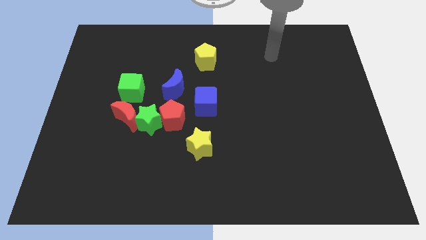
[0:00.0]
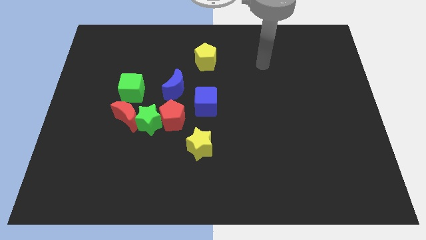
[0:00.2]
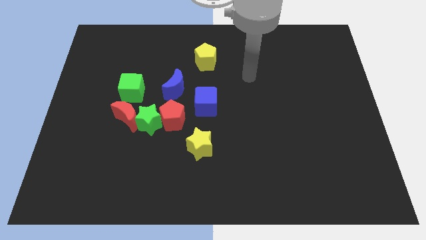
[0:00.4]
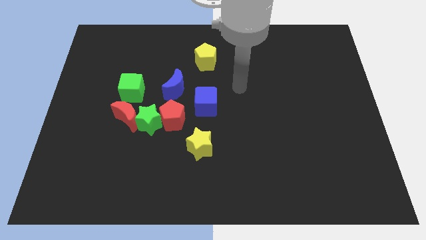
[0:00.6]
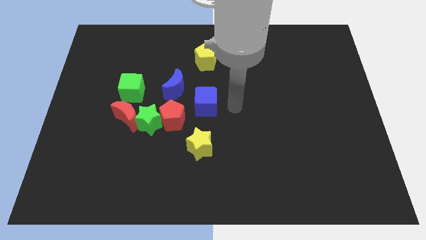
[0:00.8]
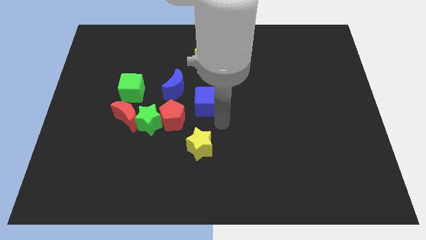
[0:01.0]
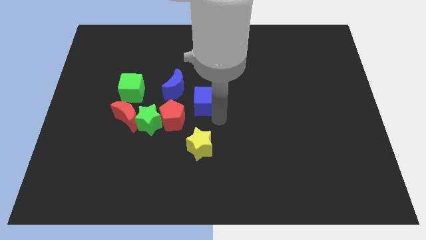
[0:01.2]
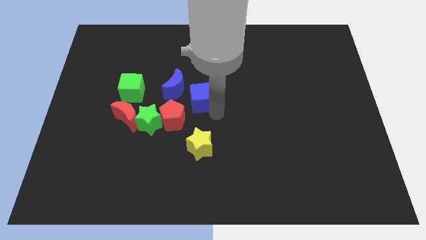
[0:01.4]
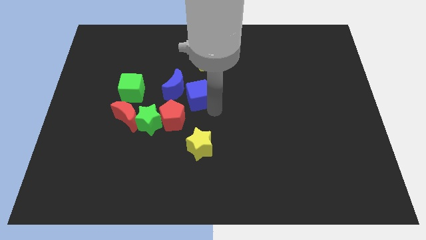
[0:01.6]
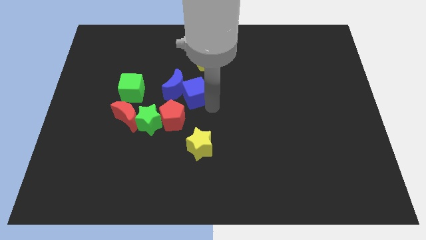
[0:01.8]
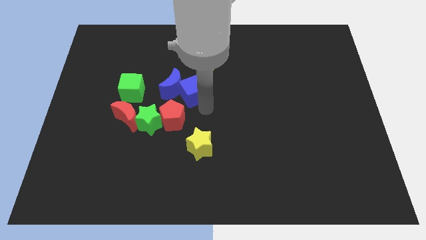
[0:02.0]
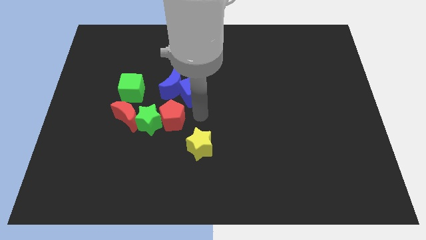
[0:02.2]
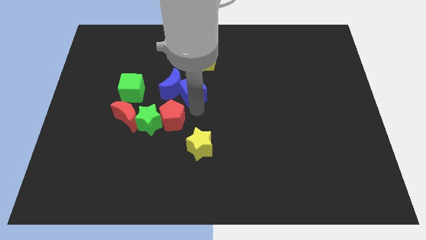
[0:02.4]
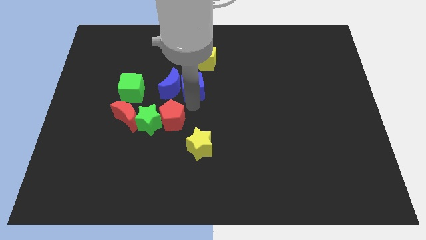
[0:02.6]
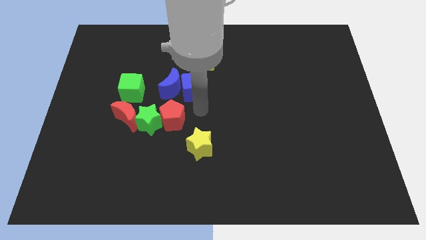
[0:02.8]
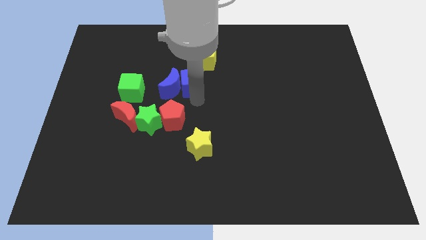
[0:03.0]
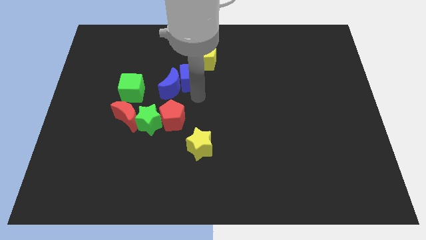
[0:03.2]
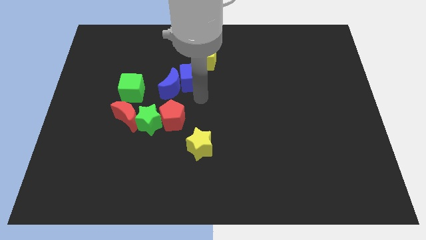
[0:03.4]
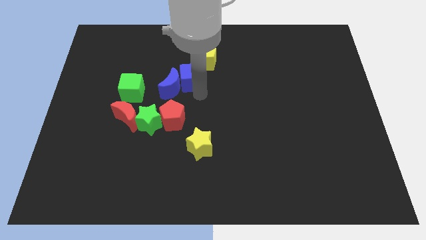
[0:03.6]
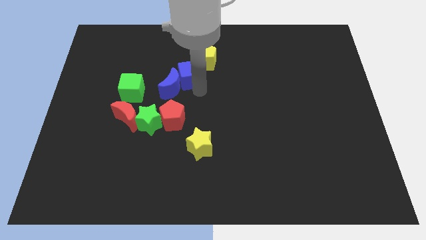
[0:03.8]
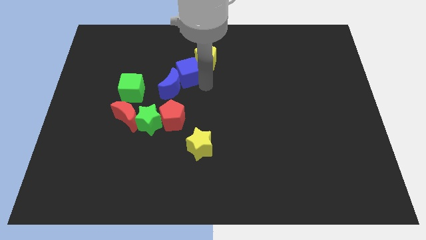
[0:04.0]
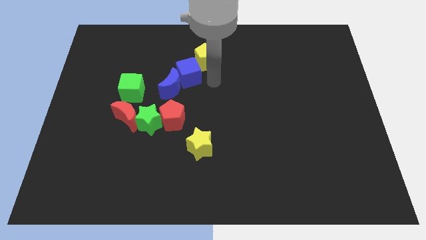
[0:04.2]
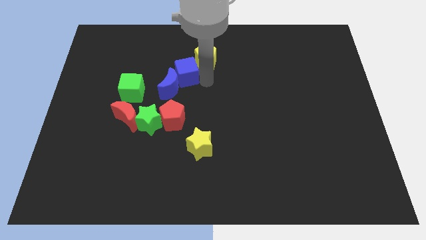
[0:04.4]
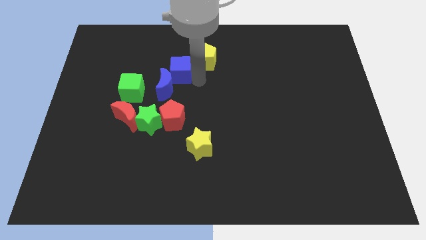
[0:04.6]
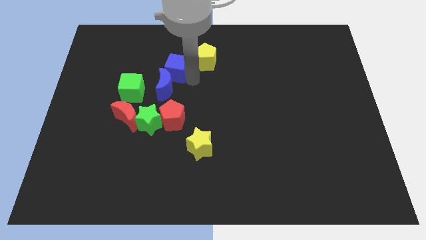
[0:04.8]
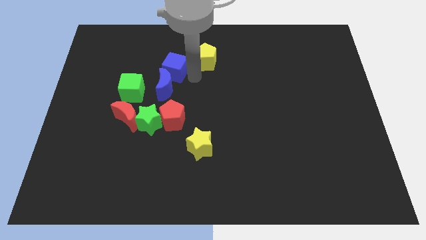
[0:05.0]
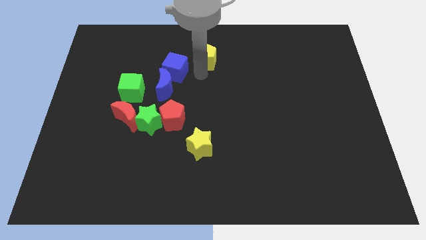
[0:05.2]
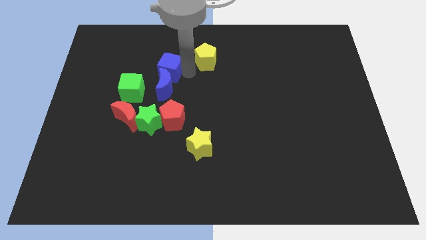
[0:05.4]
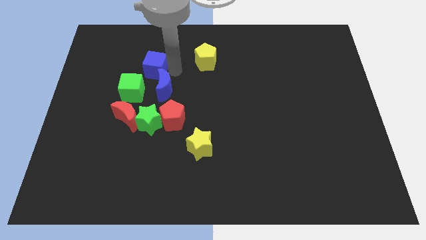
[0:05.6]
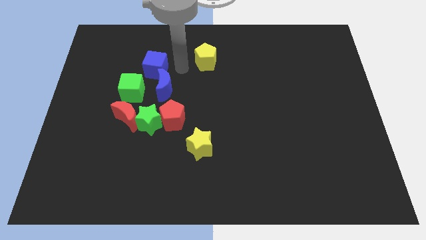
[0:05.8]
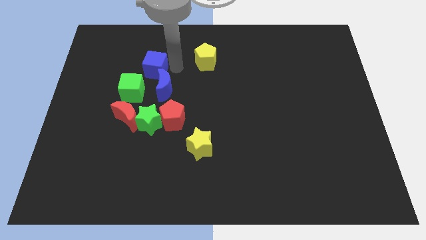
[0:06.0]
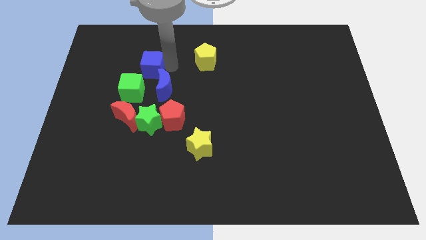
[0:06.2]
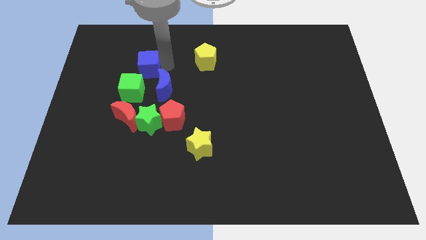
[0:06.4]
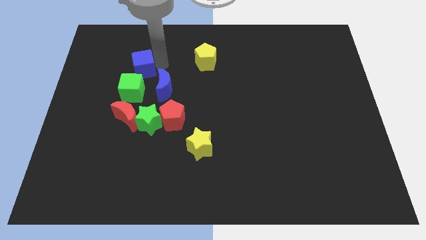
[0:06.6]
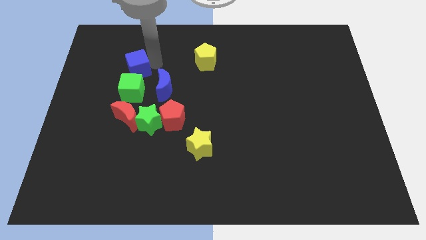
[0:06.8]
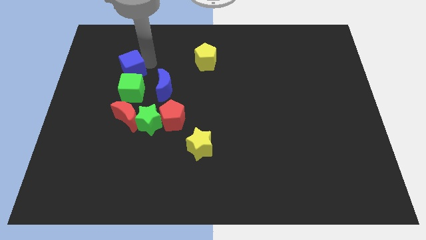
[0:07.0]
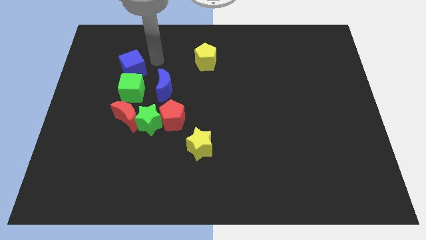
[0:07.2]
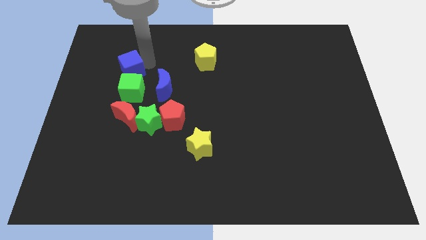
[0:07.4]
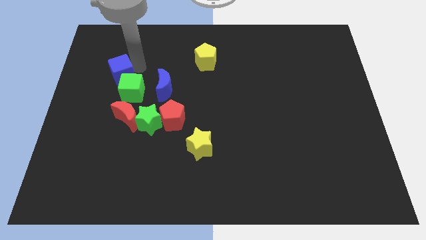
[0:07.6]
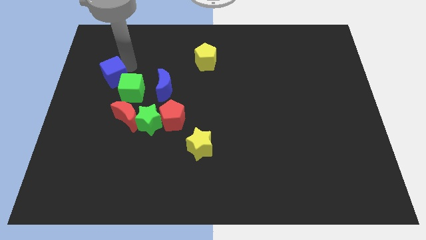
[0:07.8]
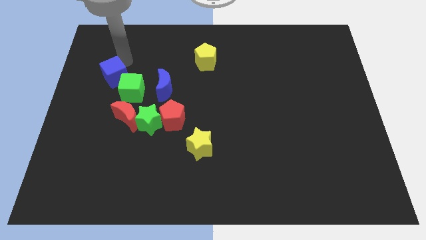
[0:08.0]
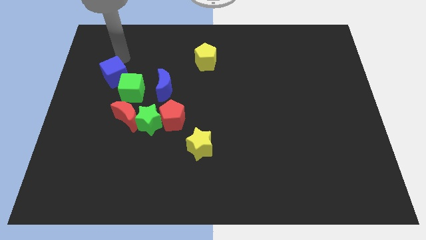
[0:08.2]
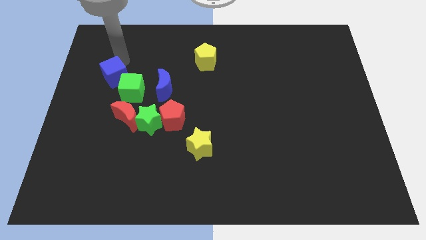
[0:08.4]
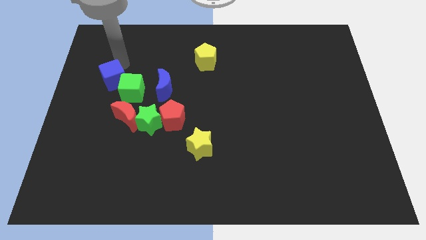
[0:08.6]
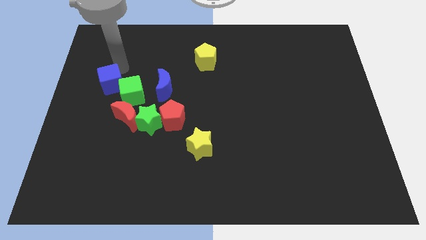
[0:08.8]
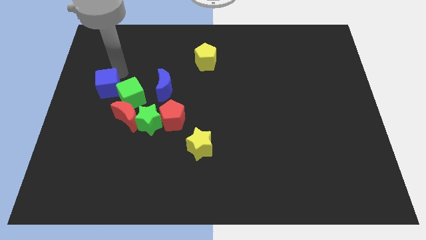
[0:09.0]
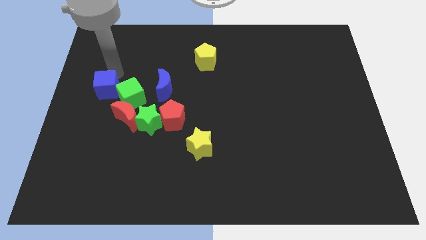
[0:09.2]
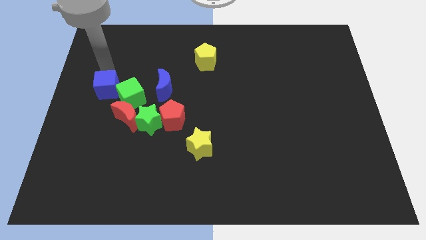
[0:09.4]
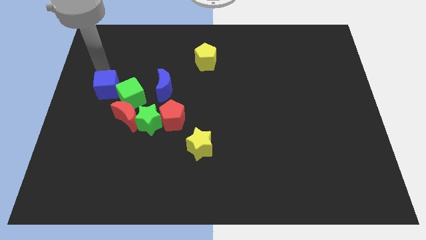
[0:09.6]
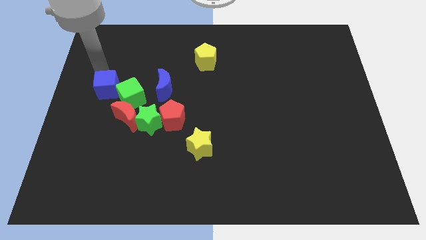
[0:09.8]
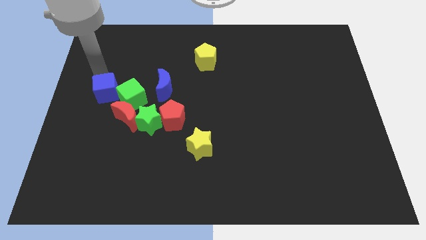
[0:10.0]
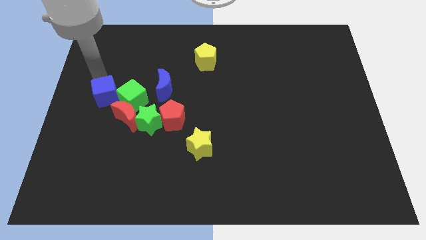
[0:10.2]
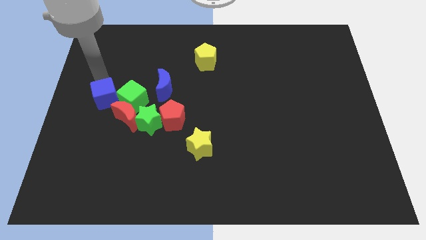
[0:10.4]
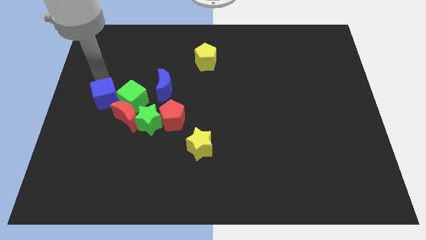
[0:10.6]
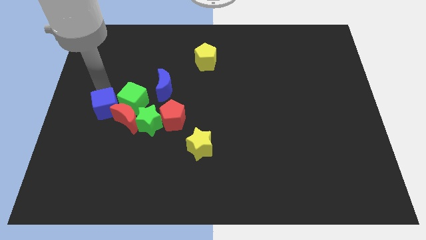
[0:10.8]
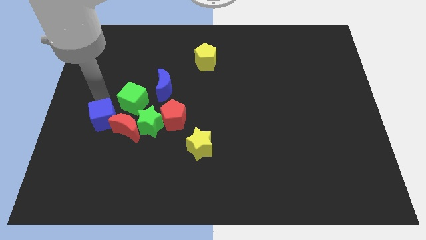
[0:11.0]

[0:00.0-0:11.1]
move the blue cube to the left side of the red pentagon

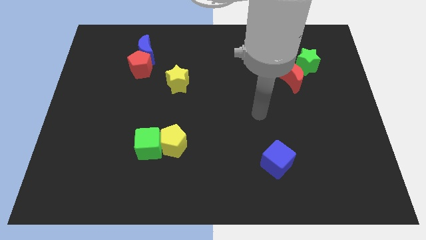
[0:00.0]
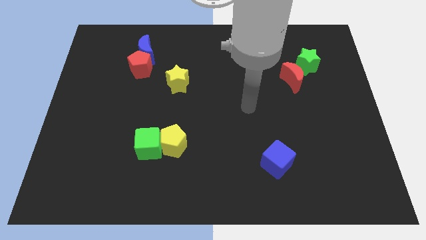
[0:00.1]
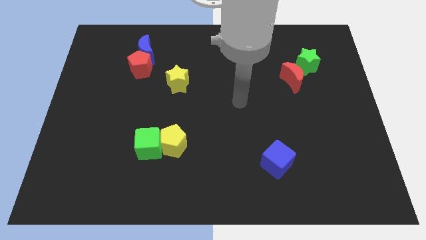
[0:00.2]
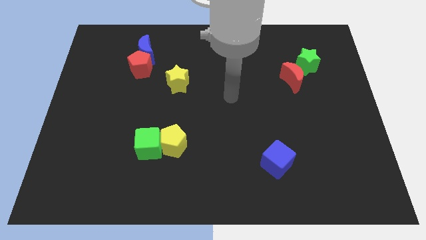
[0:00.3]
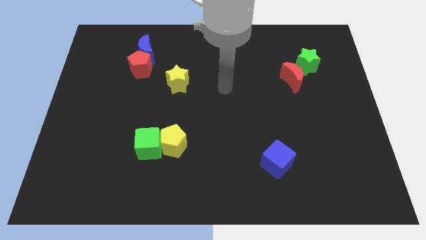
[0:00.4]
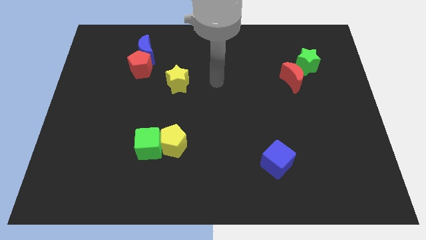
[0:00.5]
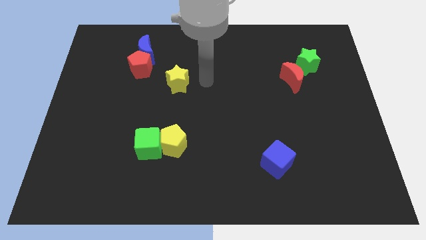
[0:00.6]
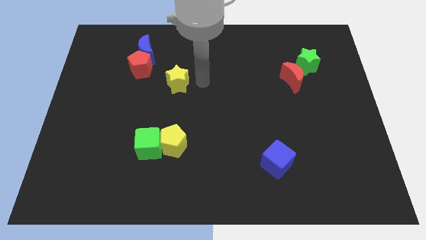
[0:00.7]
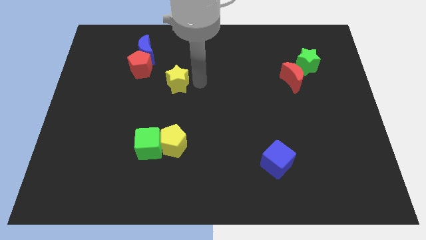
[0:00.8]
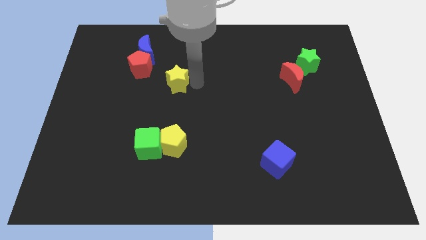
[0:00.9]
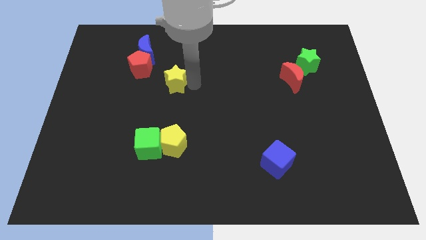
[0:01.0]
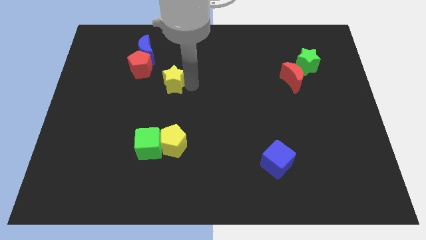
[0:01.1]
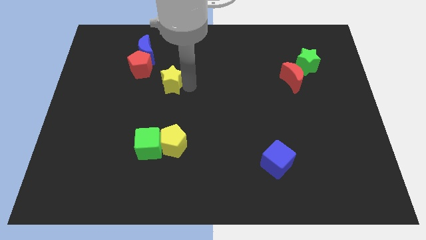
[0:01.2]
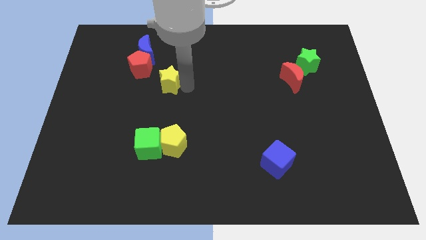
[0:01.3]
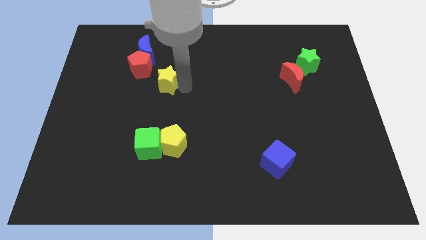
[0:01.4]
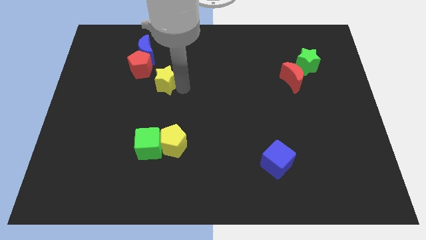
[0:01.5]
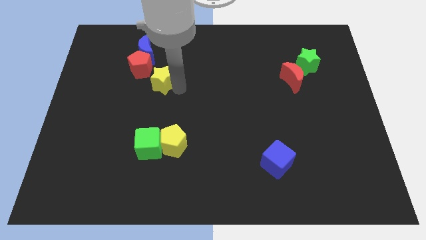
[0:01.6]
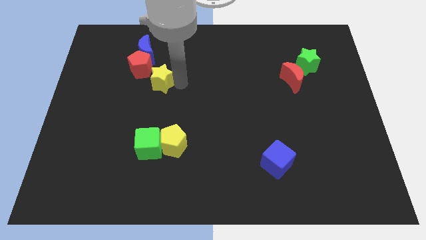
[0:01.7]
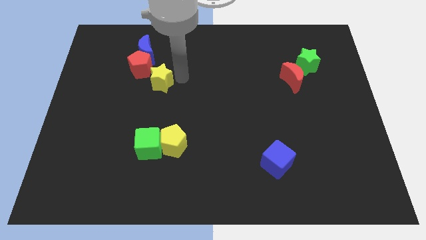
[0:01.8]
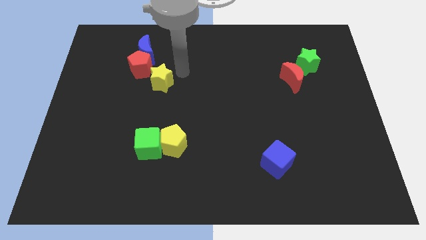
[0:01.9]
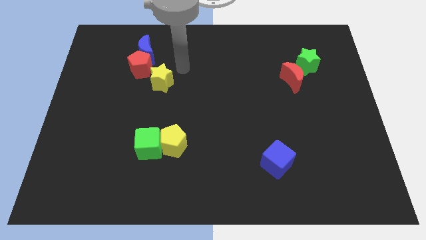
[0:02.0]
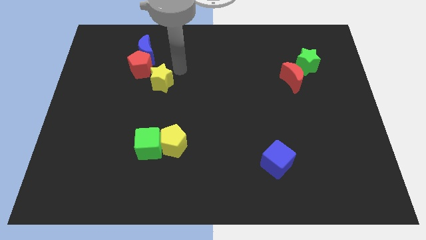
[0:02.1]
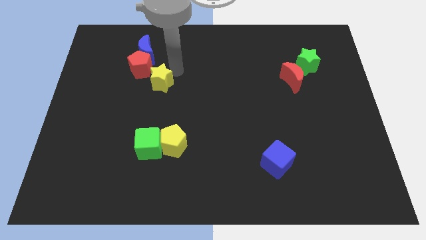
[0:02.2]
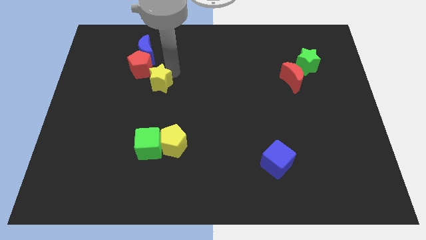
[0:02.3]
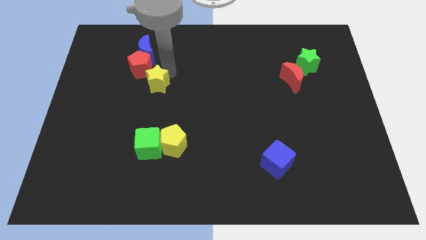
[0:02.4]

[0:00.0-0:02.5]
move the yellow star to the bottom side of the red pentagon
